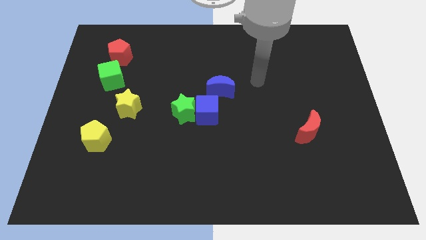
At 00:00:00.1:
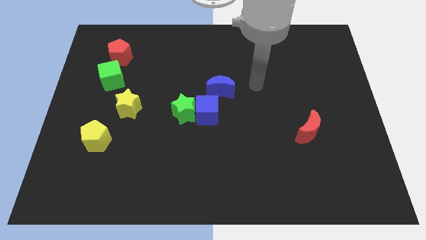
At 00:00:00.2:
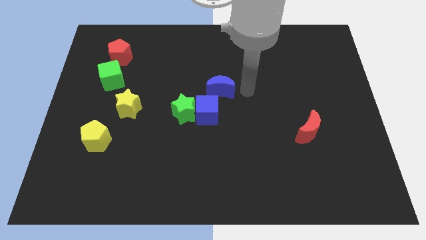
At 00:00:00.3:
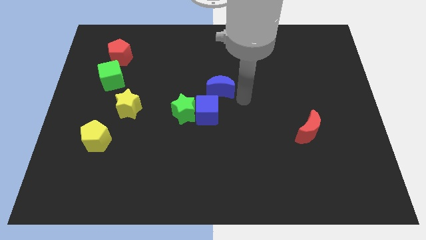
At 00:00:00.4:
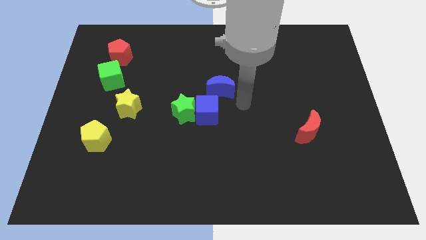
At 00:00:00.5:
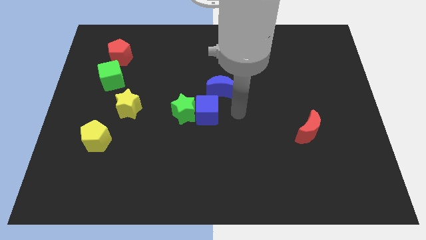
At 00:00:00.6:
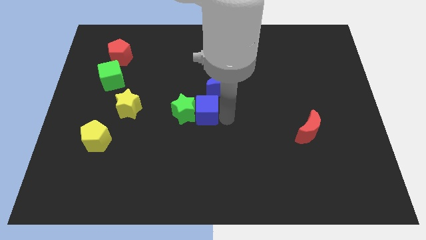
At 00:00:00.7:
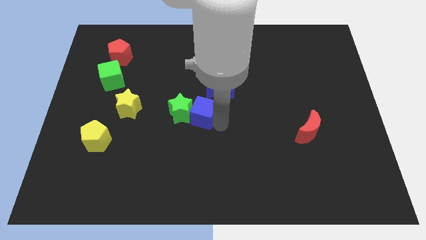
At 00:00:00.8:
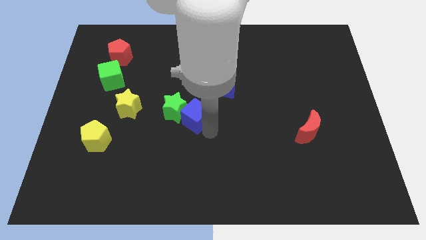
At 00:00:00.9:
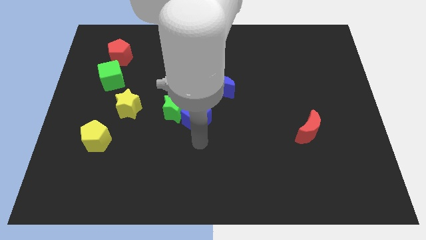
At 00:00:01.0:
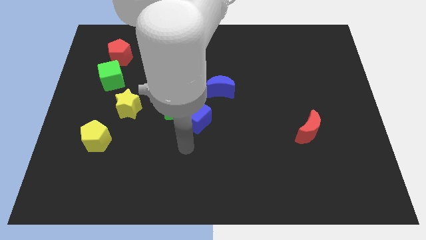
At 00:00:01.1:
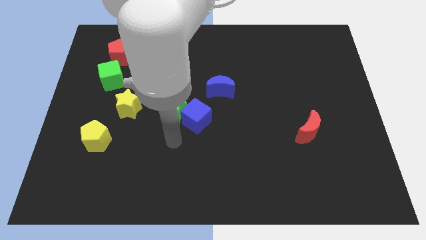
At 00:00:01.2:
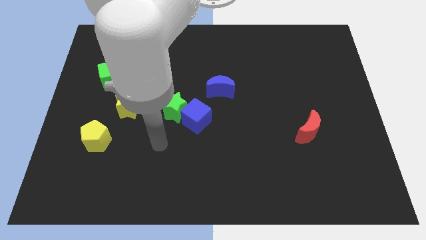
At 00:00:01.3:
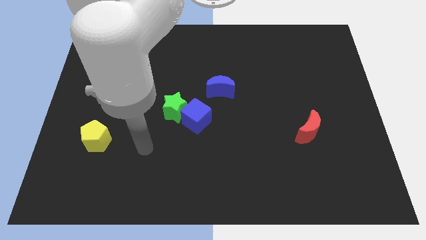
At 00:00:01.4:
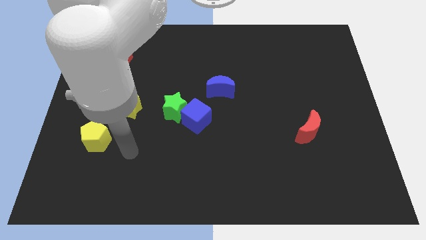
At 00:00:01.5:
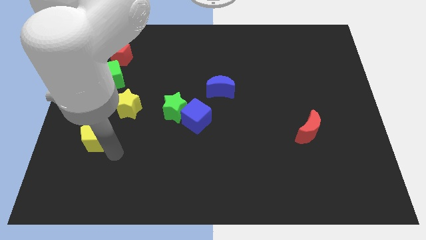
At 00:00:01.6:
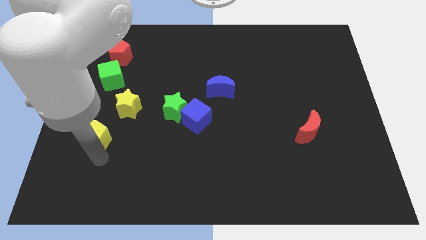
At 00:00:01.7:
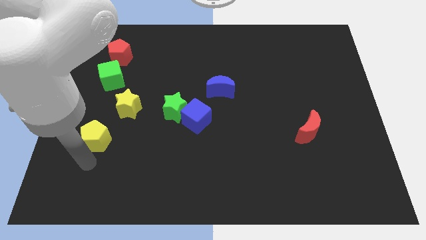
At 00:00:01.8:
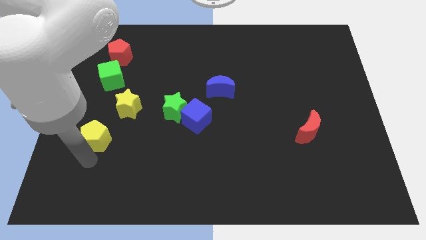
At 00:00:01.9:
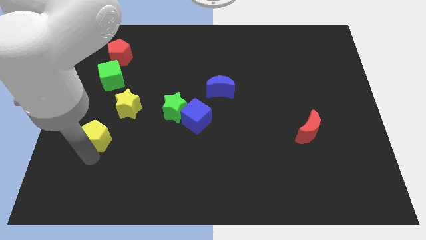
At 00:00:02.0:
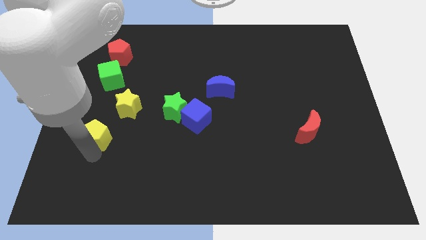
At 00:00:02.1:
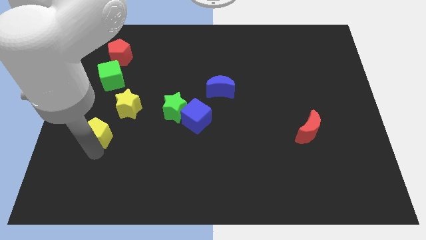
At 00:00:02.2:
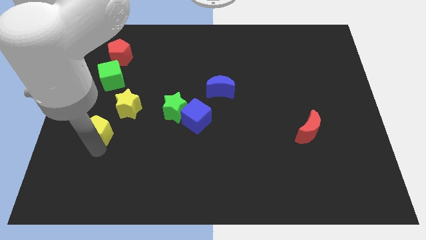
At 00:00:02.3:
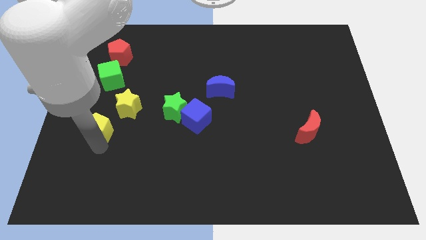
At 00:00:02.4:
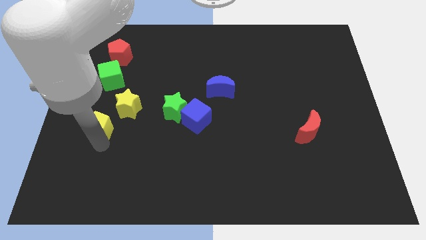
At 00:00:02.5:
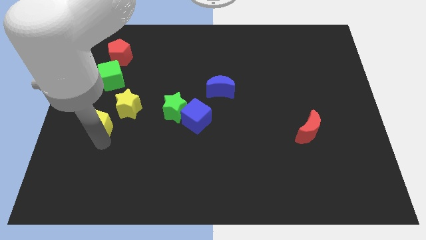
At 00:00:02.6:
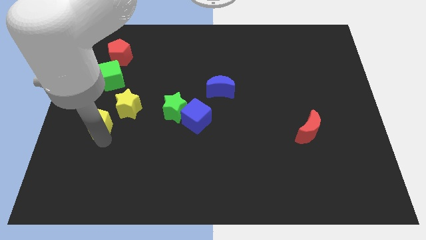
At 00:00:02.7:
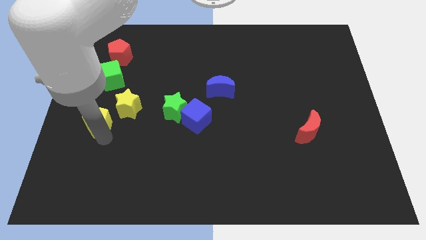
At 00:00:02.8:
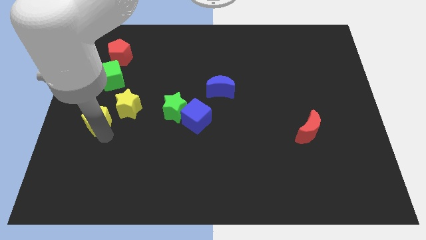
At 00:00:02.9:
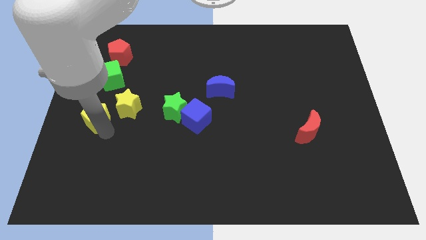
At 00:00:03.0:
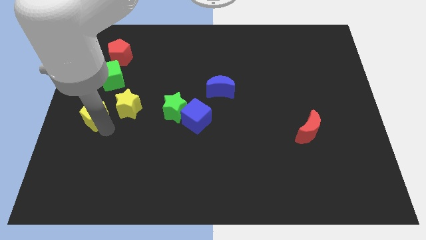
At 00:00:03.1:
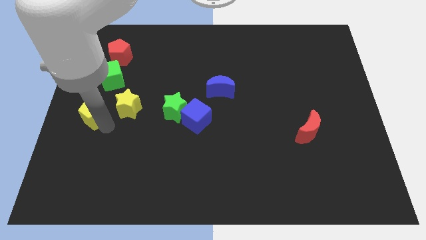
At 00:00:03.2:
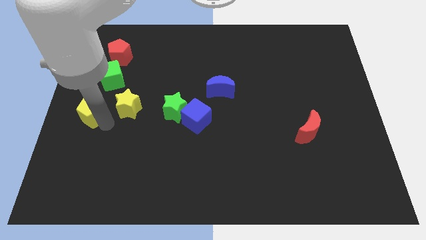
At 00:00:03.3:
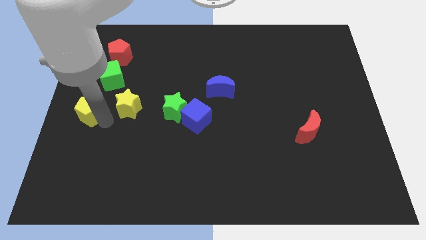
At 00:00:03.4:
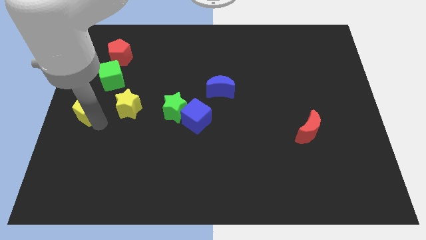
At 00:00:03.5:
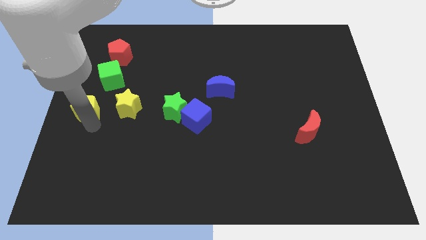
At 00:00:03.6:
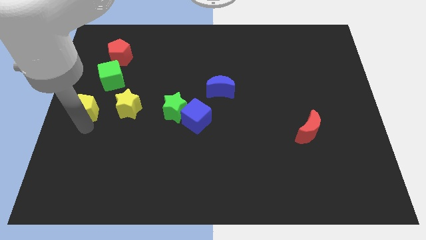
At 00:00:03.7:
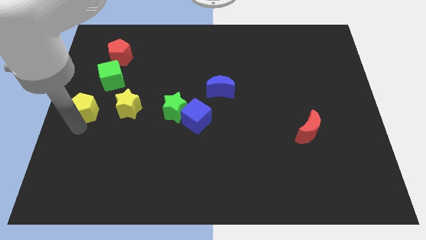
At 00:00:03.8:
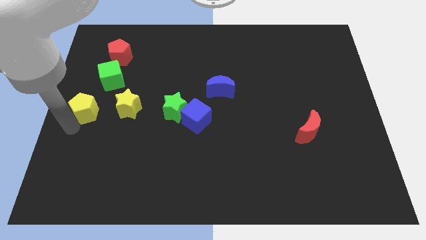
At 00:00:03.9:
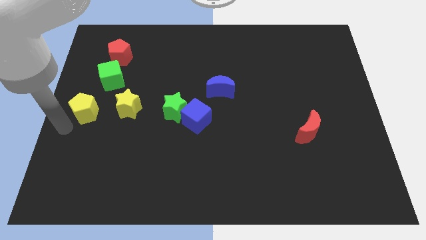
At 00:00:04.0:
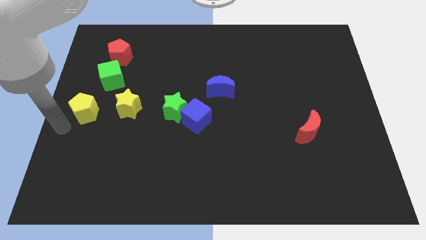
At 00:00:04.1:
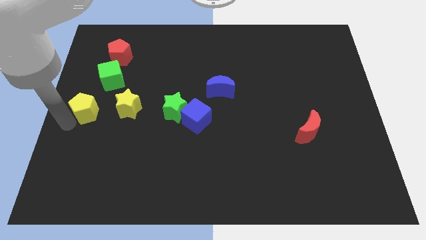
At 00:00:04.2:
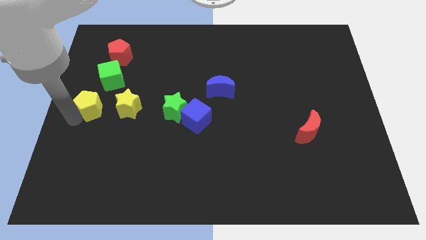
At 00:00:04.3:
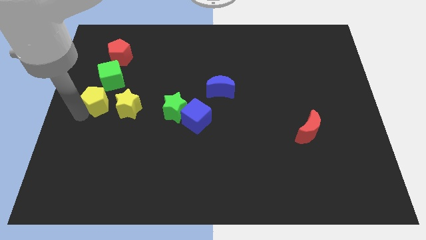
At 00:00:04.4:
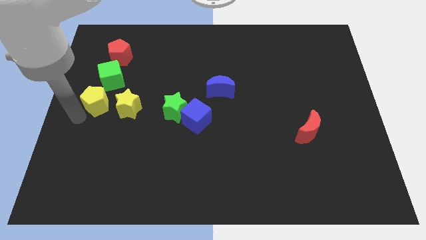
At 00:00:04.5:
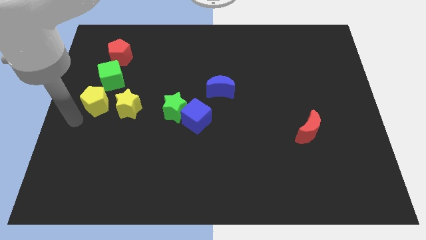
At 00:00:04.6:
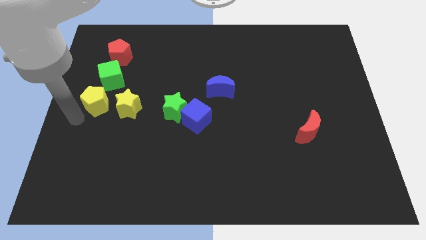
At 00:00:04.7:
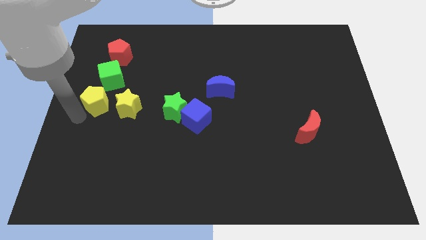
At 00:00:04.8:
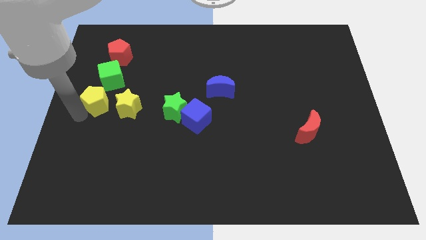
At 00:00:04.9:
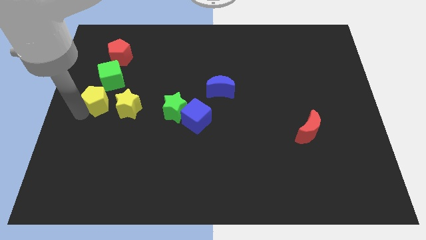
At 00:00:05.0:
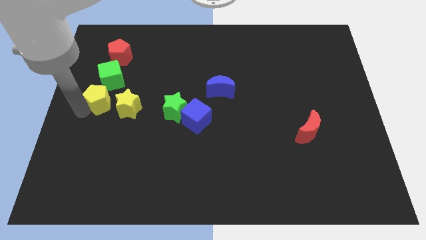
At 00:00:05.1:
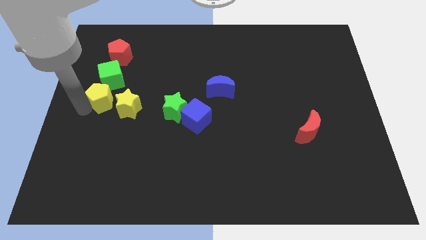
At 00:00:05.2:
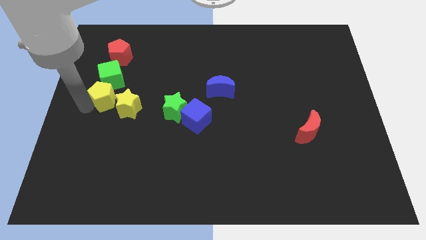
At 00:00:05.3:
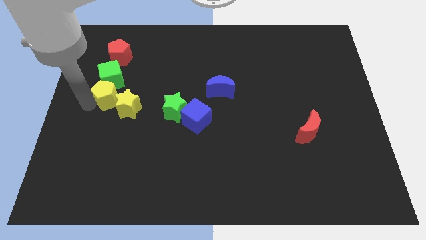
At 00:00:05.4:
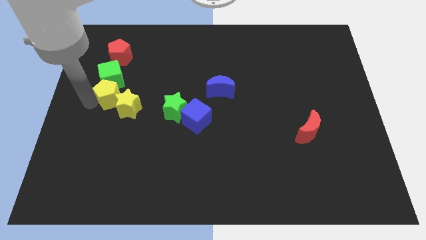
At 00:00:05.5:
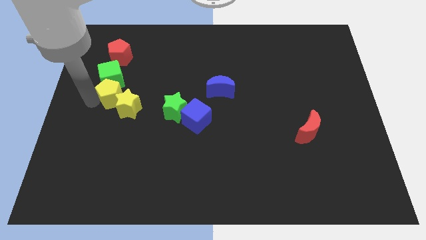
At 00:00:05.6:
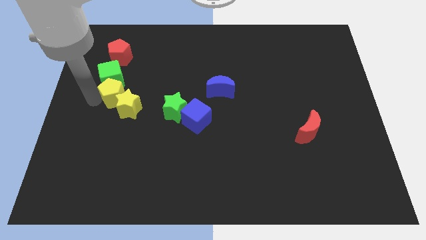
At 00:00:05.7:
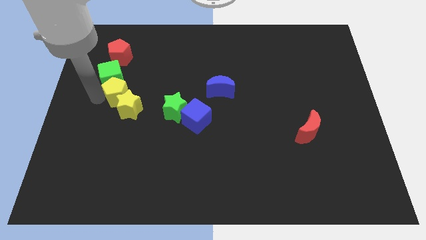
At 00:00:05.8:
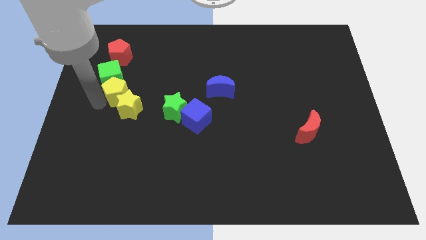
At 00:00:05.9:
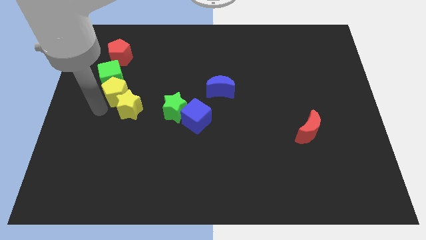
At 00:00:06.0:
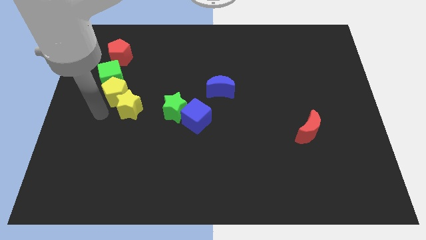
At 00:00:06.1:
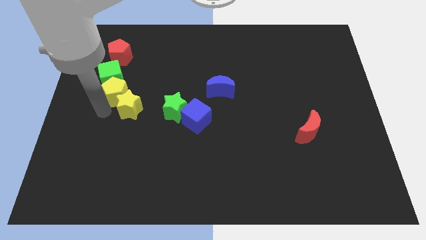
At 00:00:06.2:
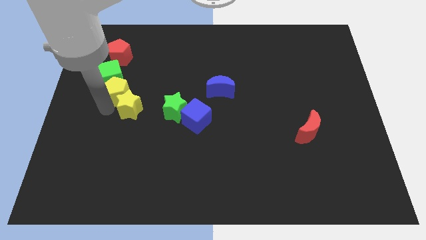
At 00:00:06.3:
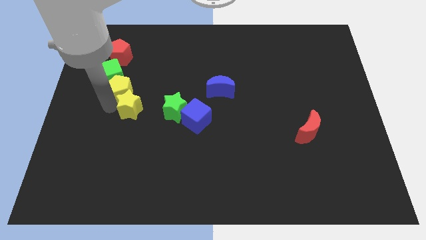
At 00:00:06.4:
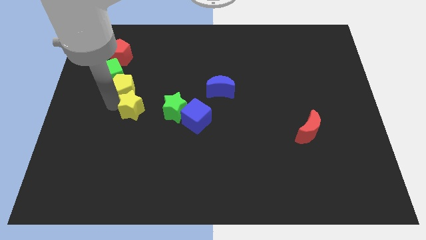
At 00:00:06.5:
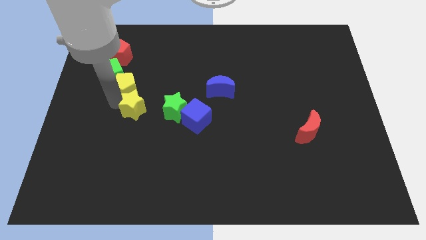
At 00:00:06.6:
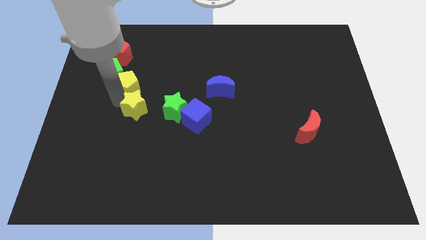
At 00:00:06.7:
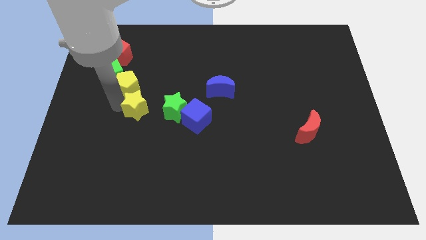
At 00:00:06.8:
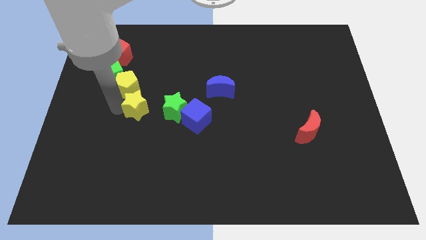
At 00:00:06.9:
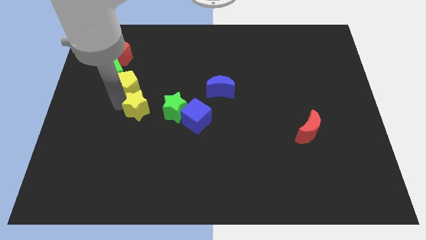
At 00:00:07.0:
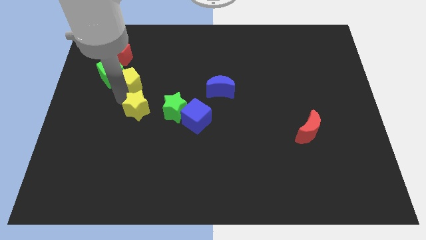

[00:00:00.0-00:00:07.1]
push the yellow pentagon diagonally down and to the right of the red pentagon

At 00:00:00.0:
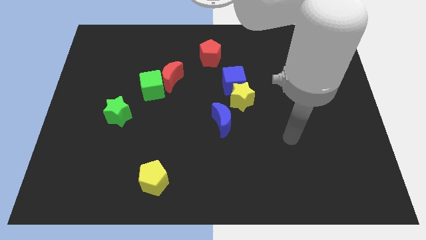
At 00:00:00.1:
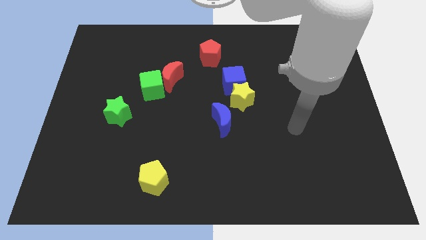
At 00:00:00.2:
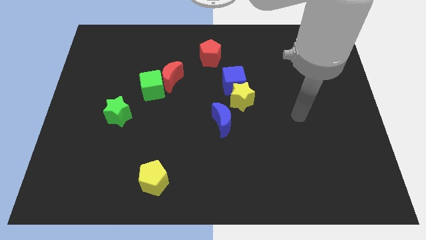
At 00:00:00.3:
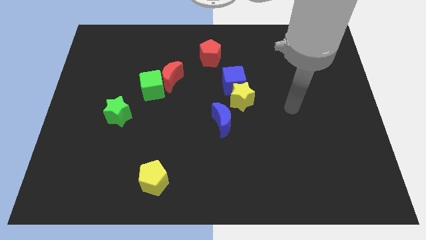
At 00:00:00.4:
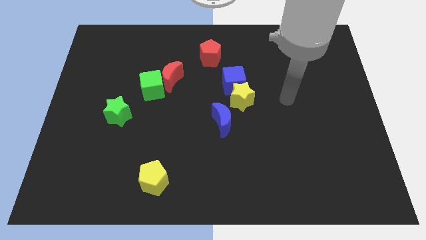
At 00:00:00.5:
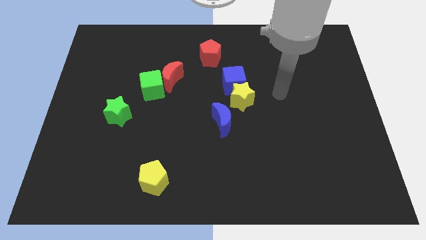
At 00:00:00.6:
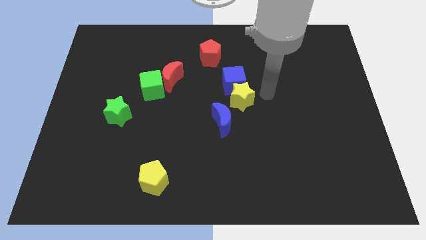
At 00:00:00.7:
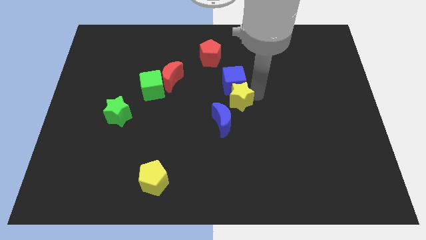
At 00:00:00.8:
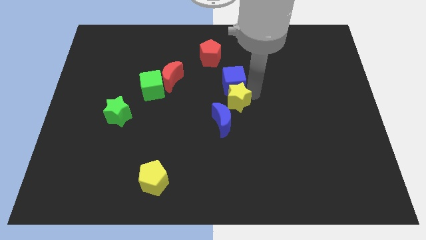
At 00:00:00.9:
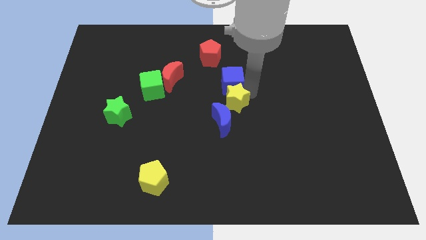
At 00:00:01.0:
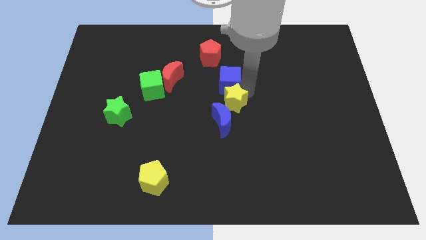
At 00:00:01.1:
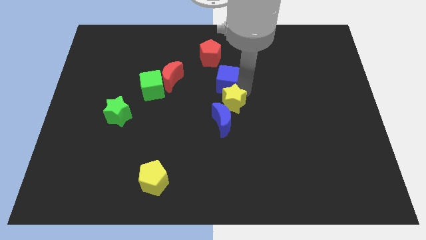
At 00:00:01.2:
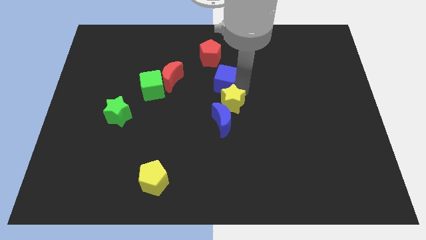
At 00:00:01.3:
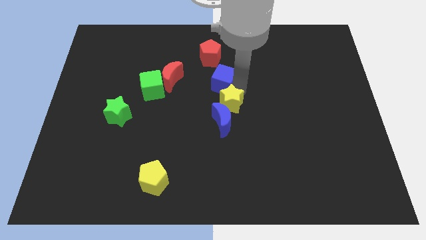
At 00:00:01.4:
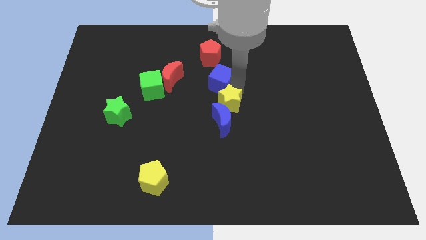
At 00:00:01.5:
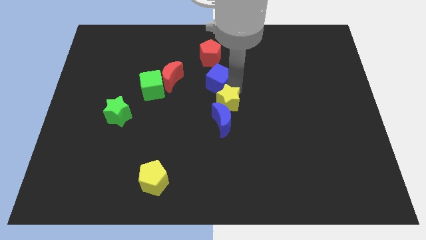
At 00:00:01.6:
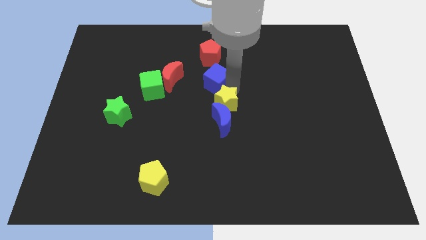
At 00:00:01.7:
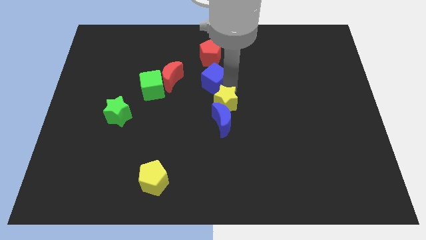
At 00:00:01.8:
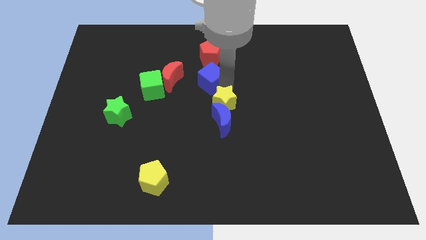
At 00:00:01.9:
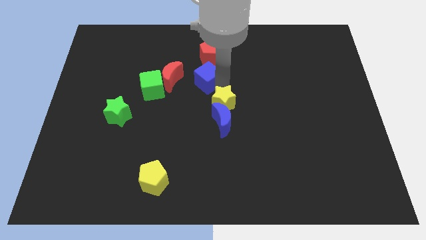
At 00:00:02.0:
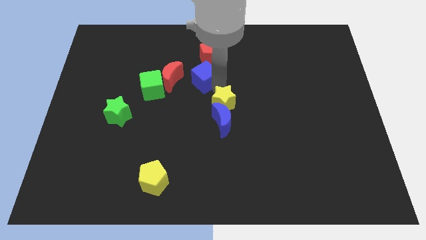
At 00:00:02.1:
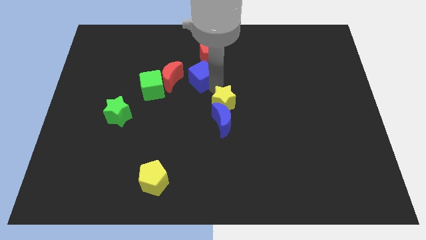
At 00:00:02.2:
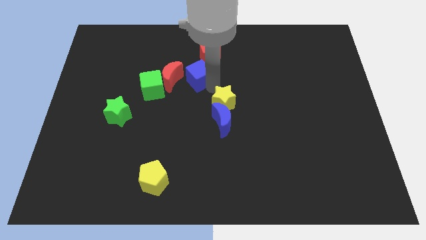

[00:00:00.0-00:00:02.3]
push the blue cube to the top right side of the red moon
